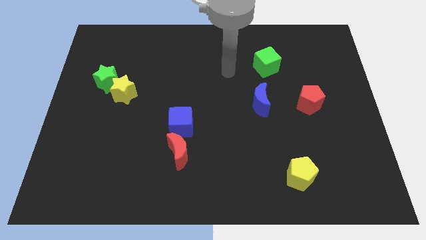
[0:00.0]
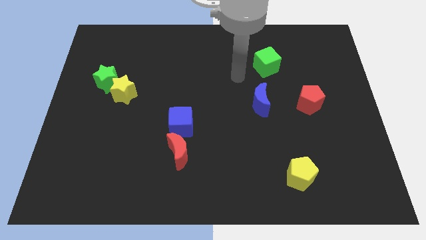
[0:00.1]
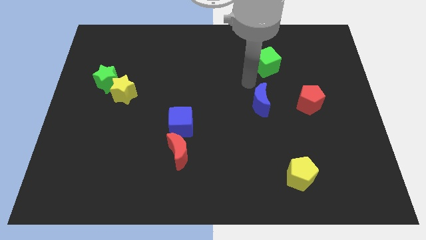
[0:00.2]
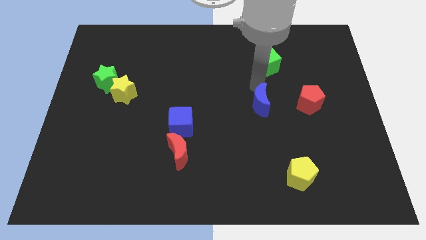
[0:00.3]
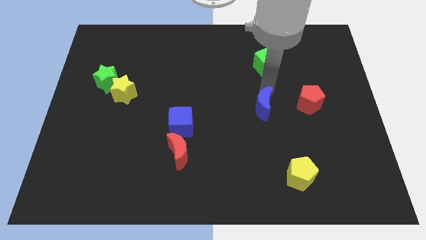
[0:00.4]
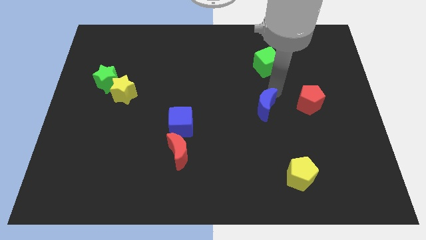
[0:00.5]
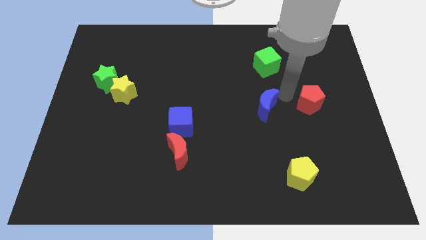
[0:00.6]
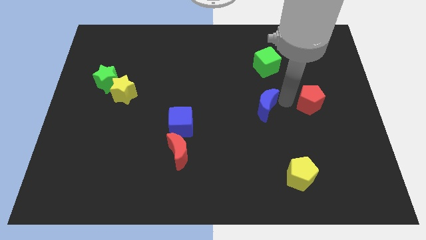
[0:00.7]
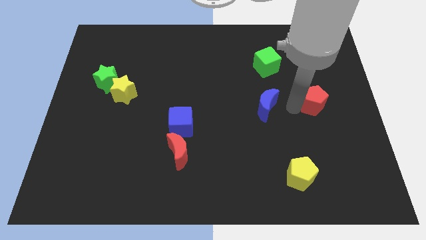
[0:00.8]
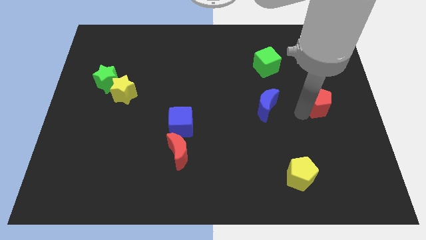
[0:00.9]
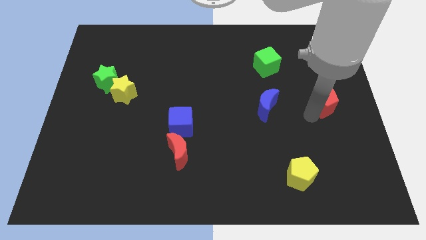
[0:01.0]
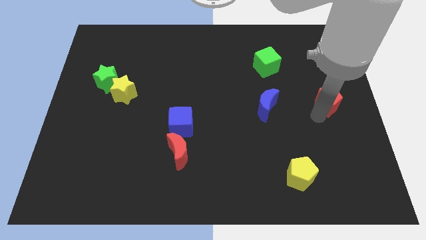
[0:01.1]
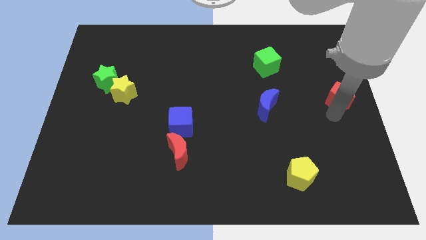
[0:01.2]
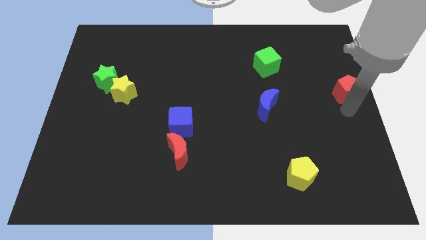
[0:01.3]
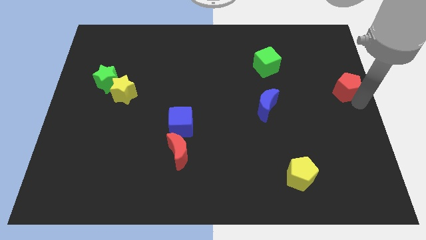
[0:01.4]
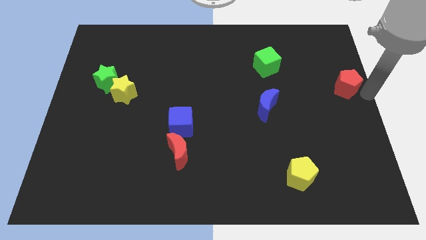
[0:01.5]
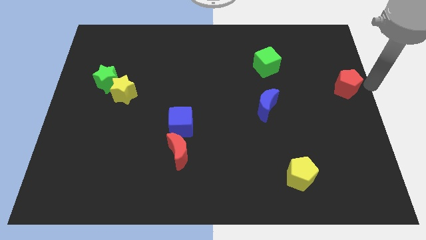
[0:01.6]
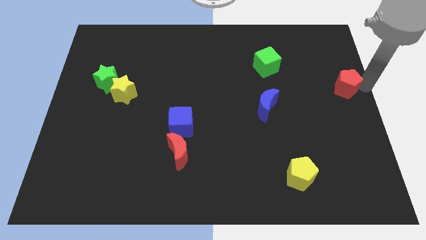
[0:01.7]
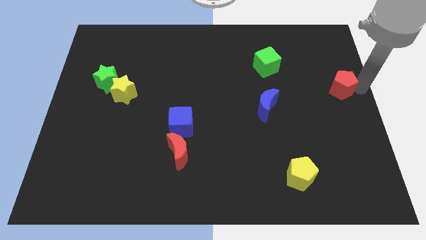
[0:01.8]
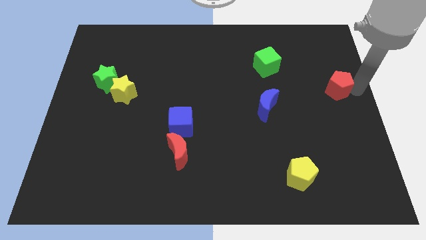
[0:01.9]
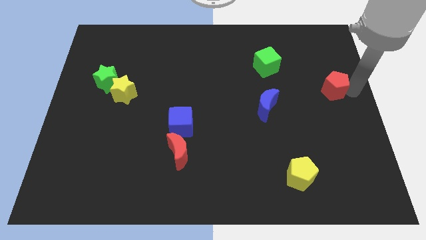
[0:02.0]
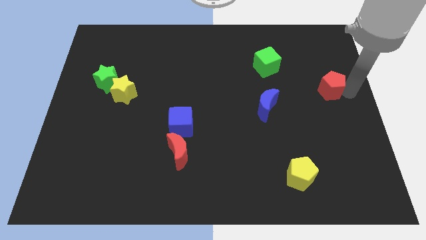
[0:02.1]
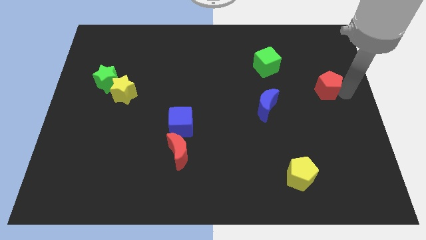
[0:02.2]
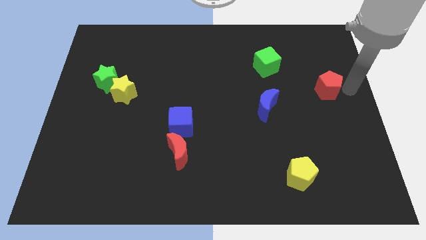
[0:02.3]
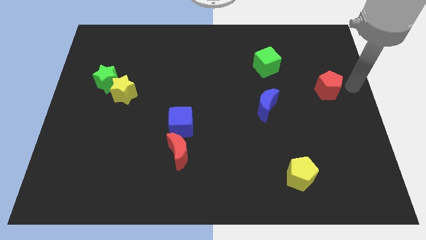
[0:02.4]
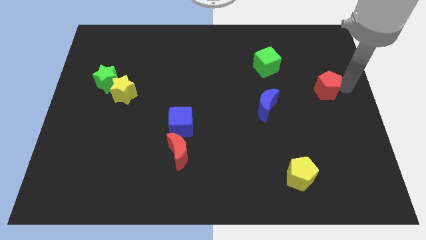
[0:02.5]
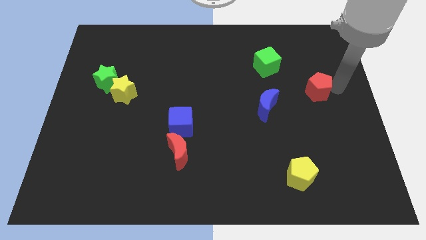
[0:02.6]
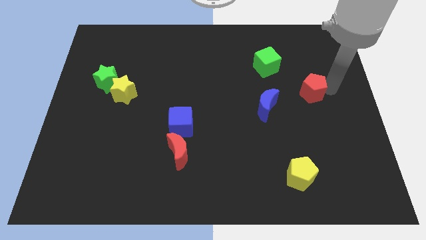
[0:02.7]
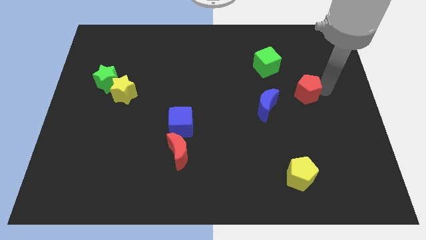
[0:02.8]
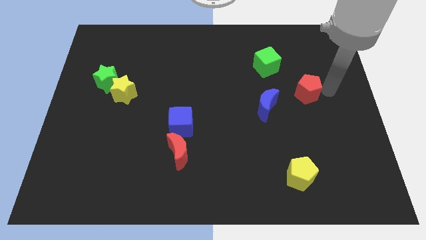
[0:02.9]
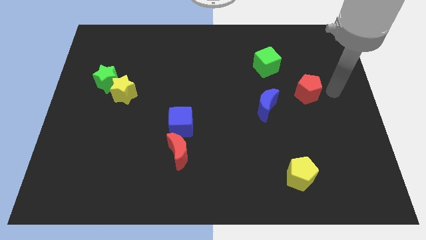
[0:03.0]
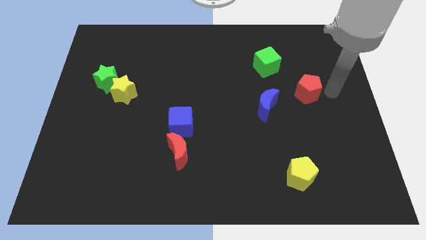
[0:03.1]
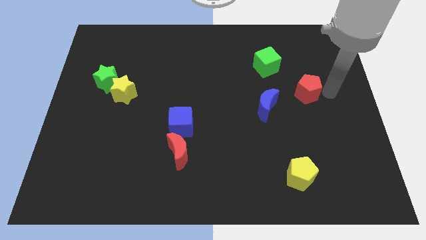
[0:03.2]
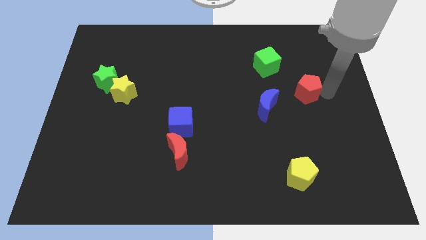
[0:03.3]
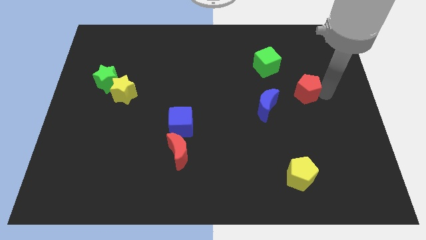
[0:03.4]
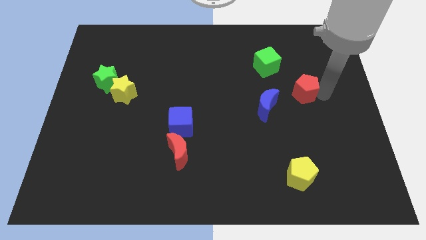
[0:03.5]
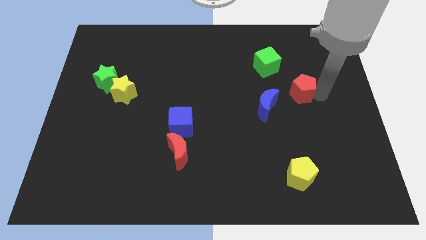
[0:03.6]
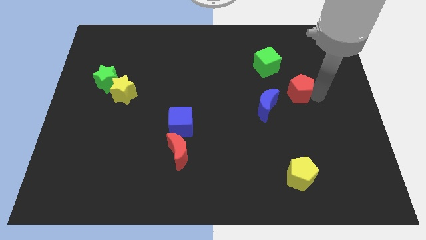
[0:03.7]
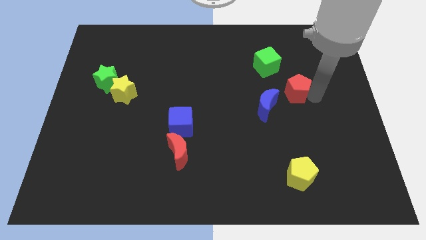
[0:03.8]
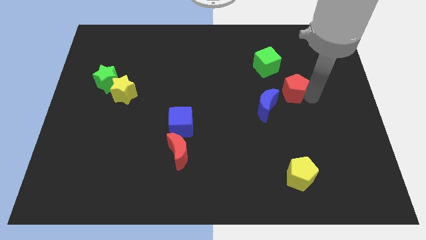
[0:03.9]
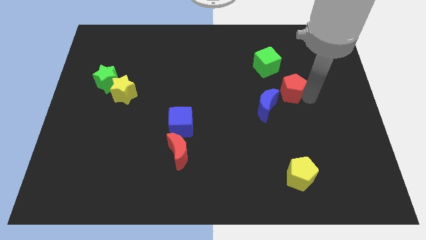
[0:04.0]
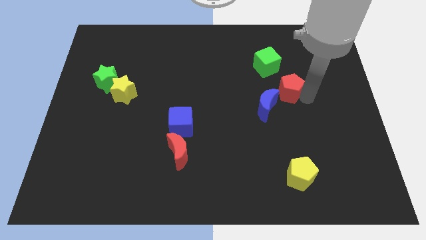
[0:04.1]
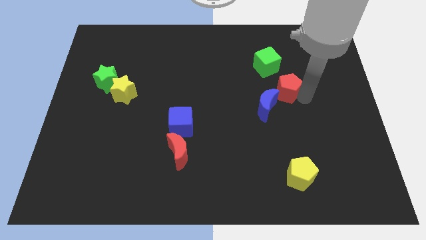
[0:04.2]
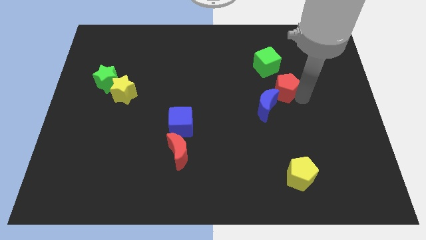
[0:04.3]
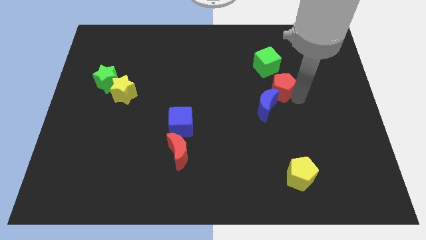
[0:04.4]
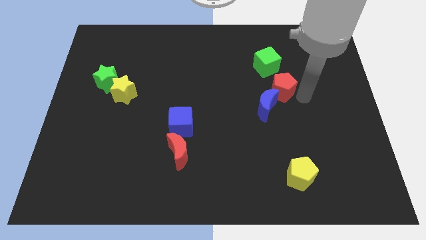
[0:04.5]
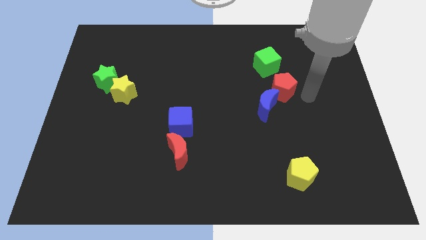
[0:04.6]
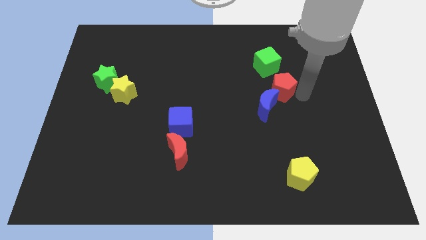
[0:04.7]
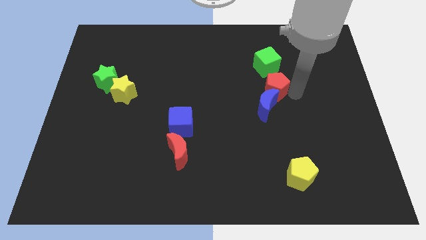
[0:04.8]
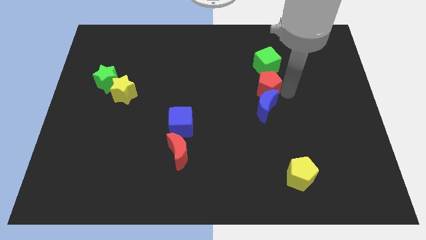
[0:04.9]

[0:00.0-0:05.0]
push the red pentagon to the top left of the blue moon

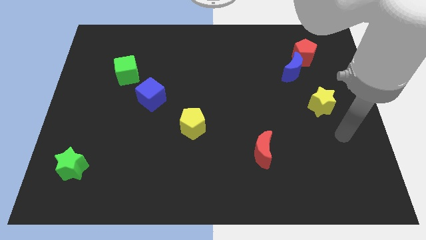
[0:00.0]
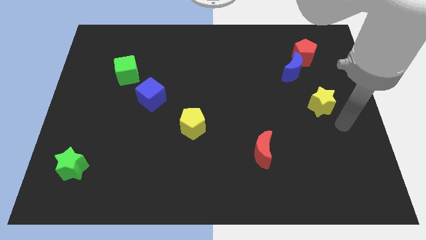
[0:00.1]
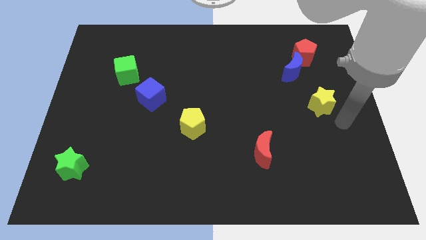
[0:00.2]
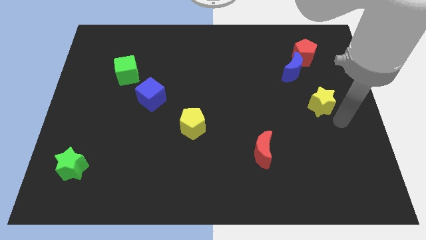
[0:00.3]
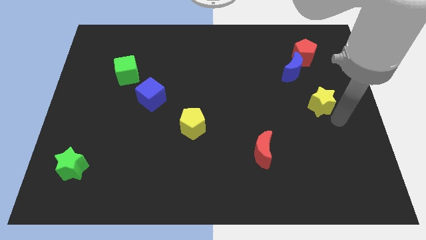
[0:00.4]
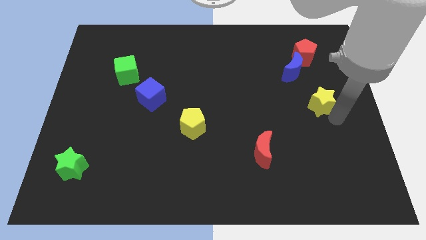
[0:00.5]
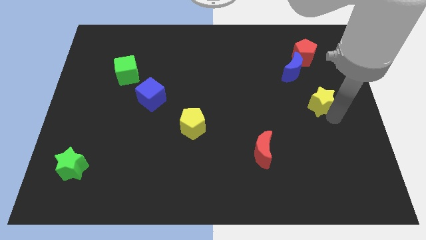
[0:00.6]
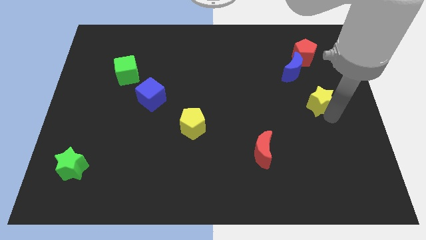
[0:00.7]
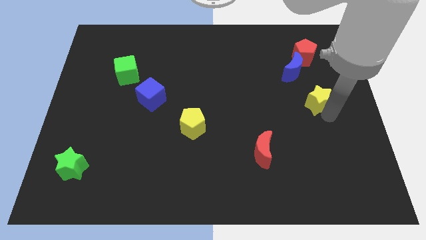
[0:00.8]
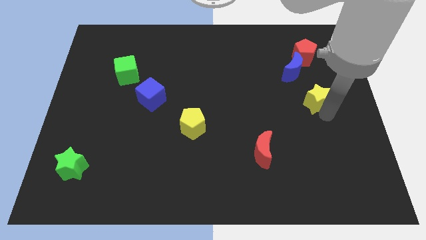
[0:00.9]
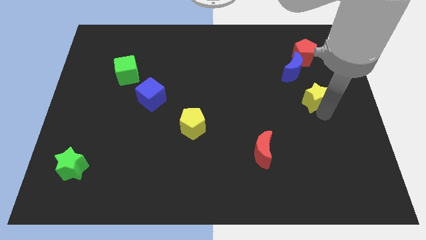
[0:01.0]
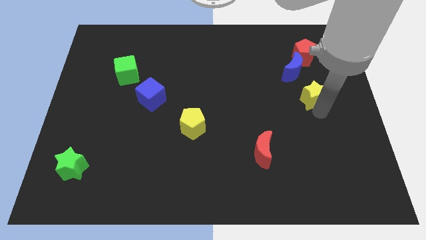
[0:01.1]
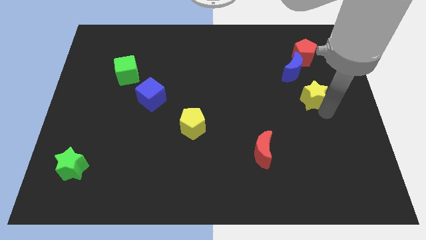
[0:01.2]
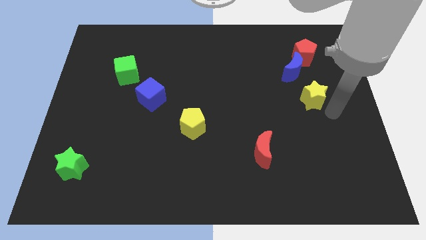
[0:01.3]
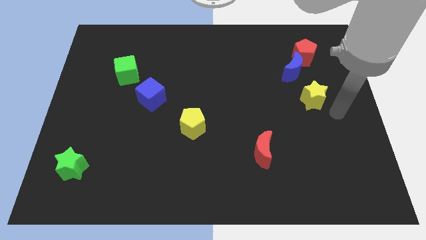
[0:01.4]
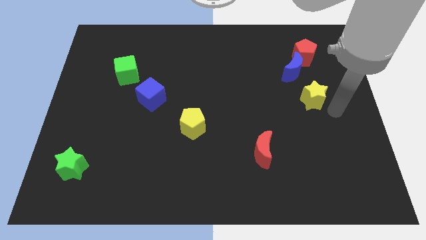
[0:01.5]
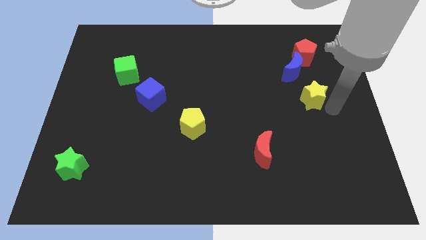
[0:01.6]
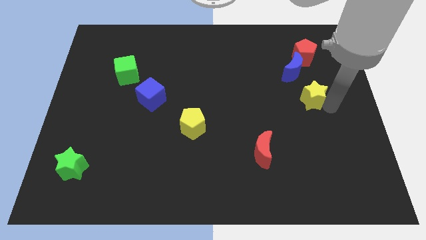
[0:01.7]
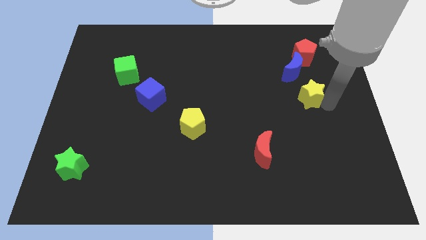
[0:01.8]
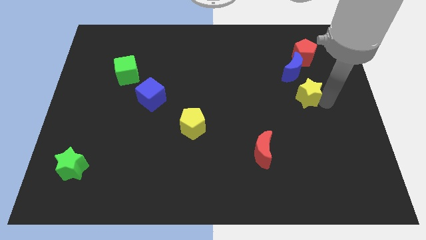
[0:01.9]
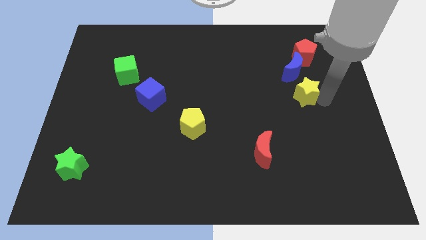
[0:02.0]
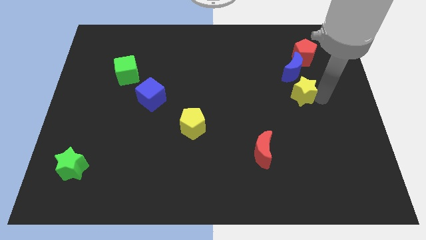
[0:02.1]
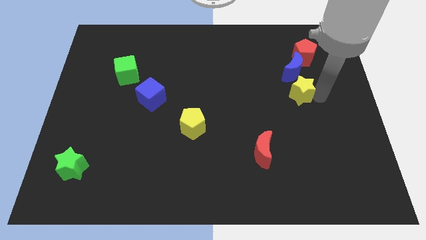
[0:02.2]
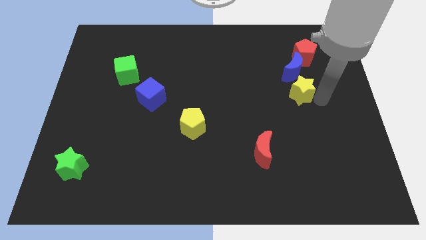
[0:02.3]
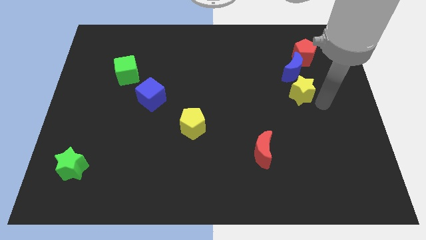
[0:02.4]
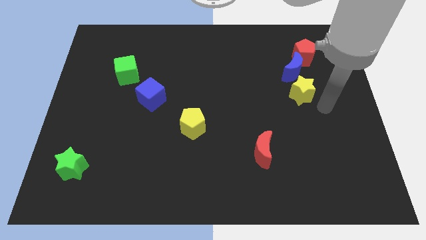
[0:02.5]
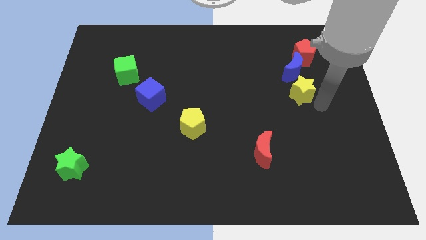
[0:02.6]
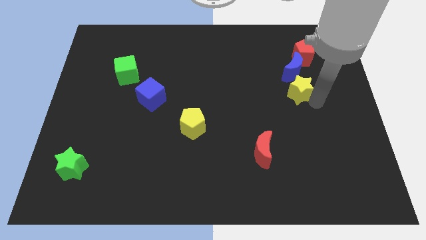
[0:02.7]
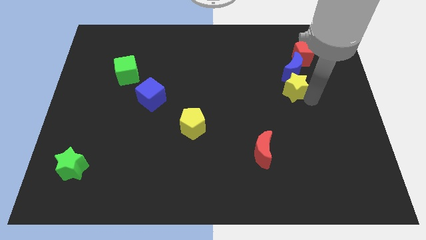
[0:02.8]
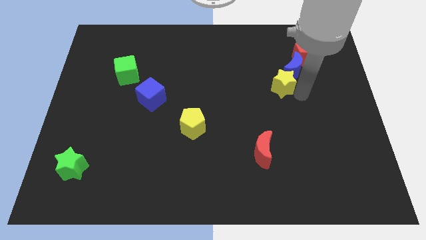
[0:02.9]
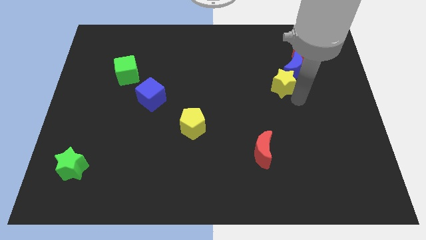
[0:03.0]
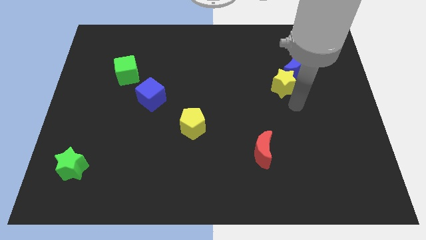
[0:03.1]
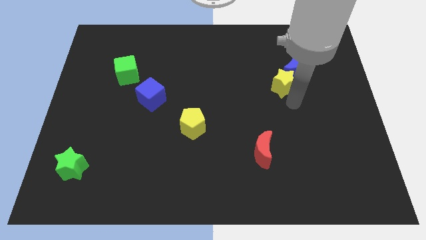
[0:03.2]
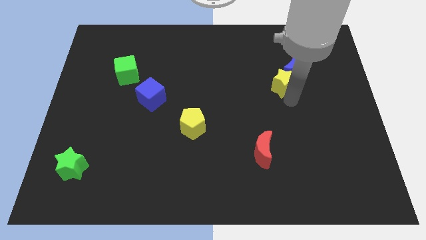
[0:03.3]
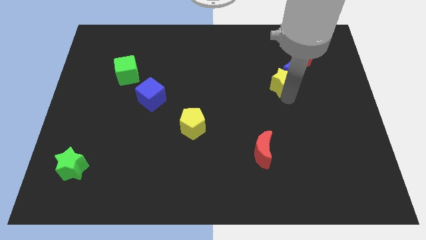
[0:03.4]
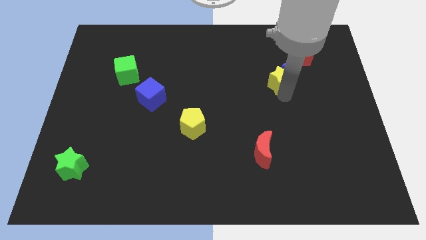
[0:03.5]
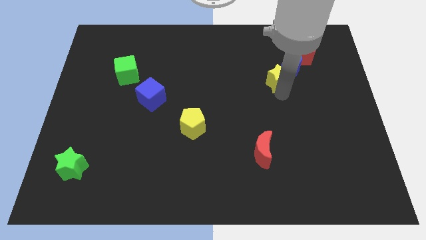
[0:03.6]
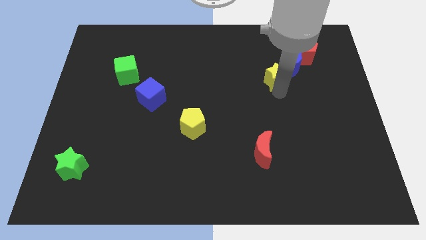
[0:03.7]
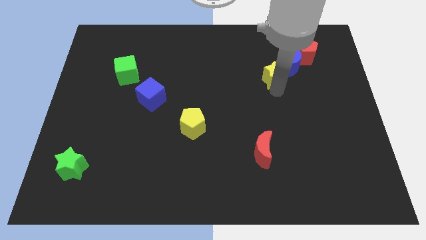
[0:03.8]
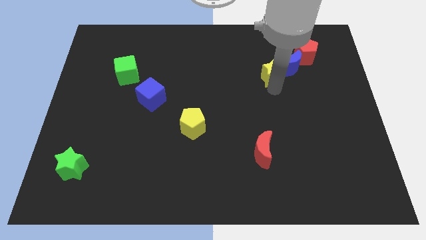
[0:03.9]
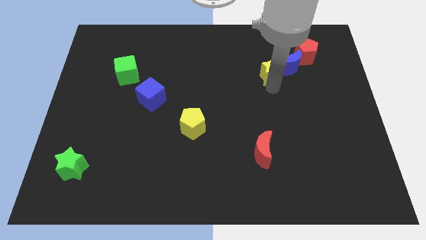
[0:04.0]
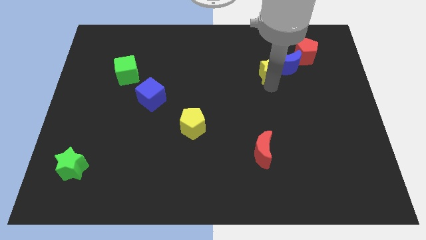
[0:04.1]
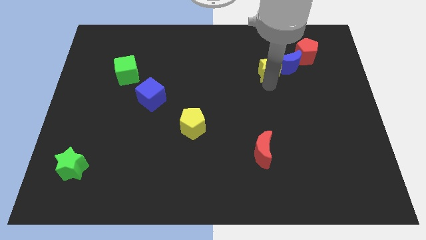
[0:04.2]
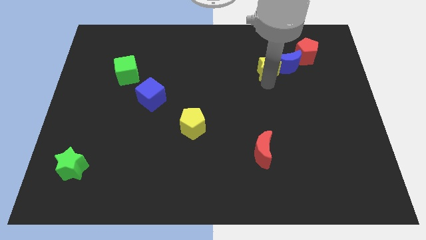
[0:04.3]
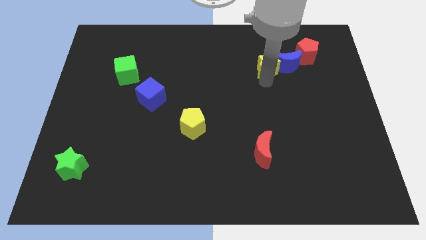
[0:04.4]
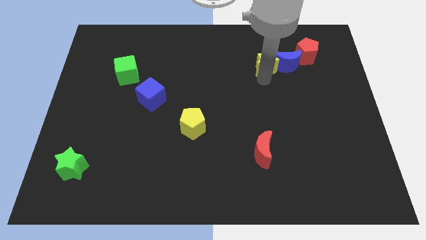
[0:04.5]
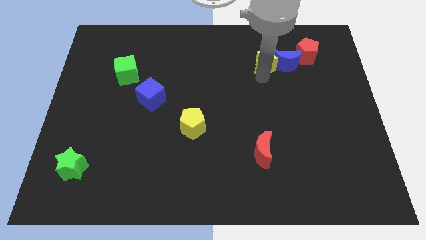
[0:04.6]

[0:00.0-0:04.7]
put the yellow star just left of the red pentagon
